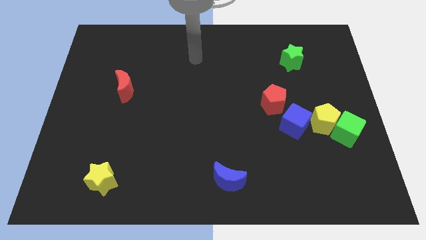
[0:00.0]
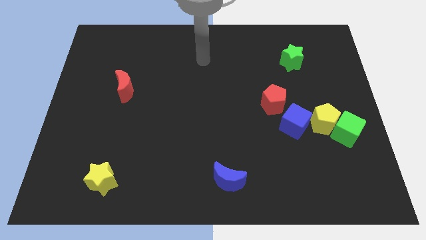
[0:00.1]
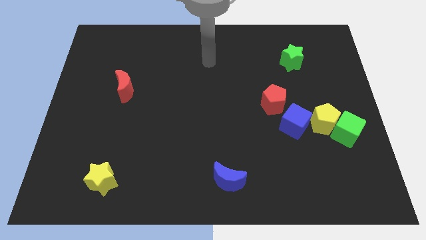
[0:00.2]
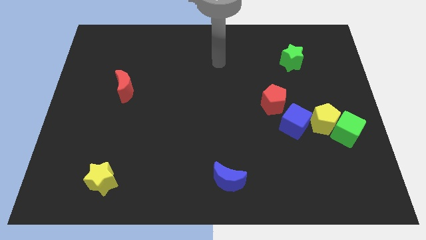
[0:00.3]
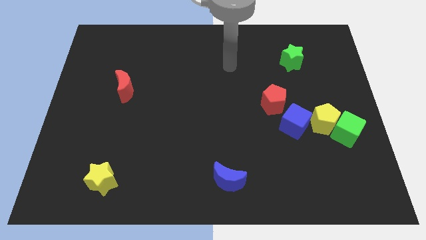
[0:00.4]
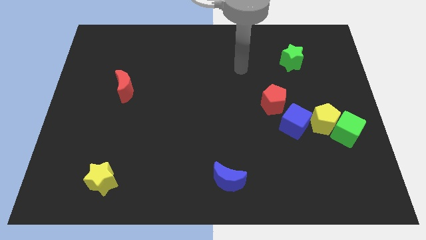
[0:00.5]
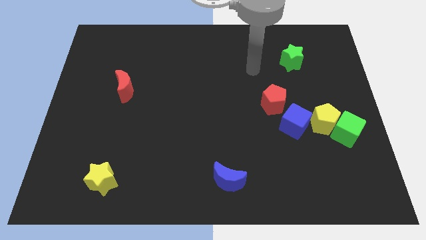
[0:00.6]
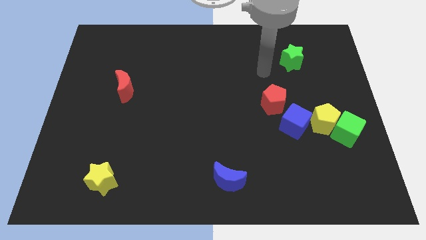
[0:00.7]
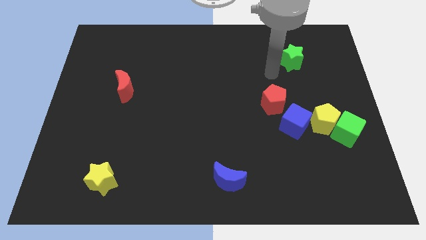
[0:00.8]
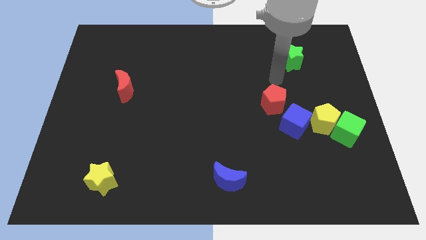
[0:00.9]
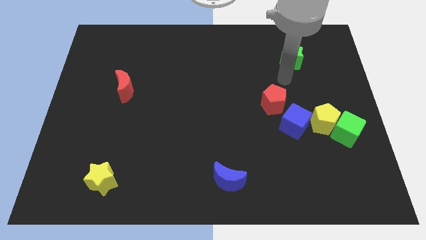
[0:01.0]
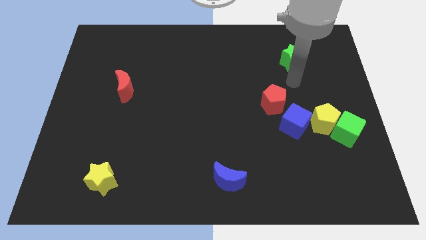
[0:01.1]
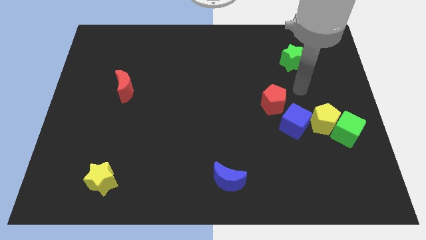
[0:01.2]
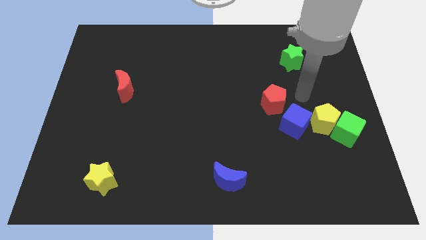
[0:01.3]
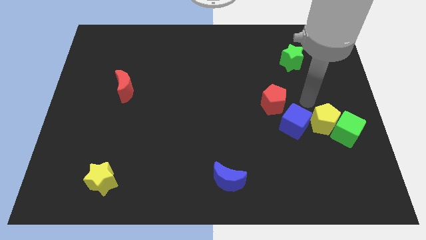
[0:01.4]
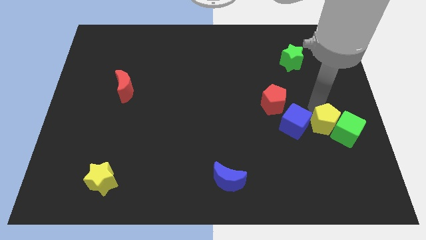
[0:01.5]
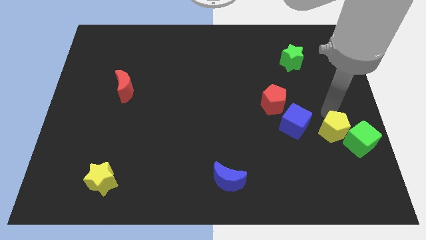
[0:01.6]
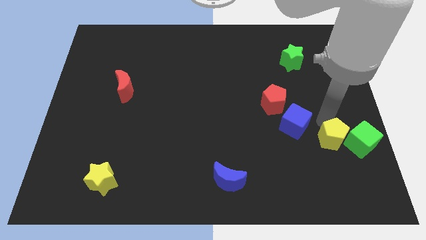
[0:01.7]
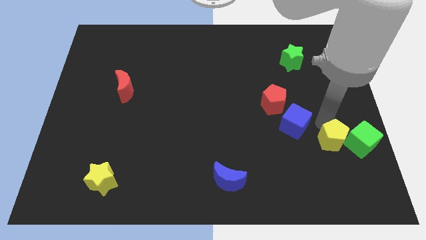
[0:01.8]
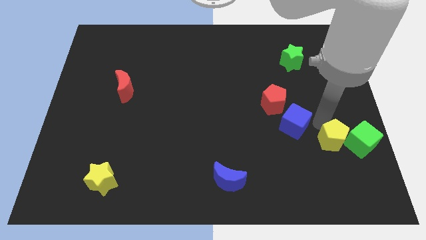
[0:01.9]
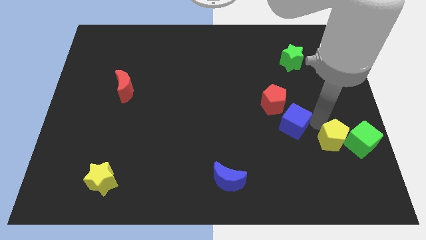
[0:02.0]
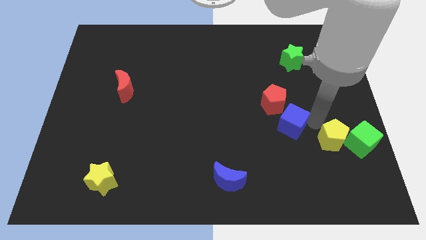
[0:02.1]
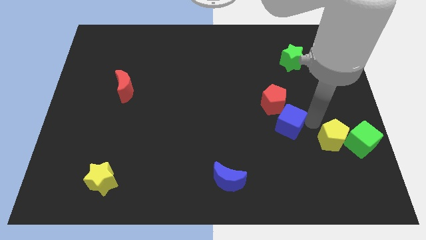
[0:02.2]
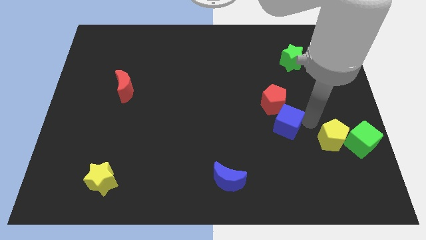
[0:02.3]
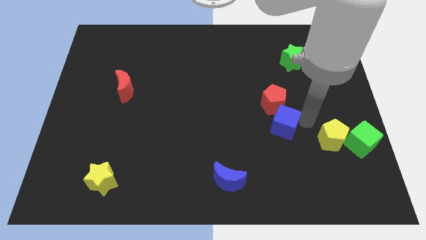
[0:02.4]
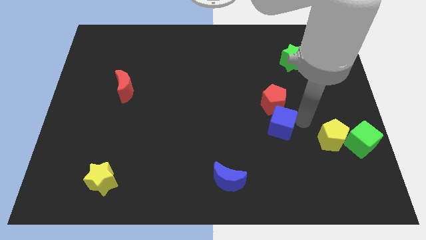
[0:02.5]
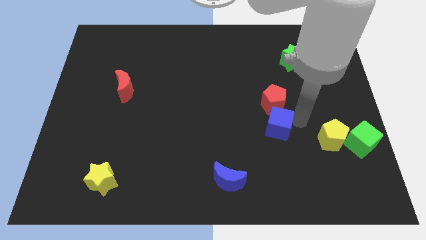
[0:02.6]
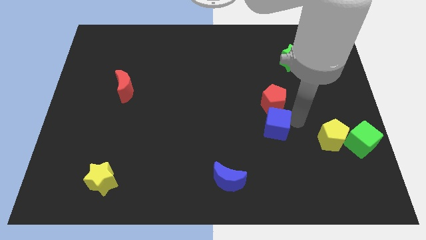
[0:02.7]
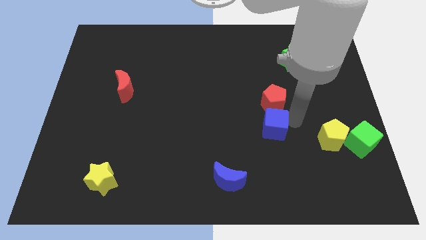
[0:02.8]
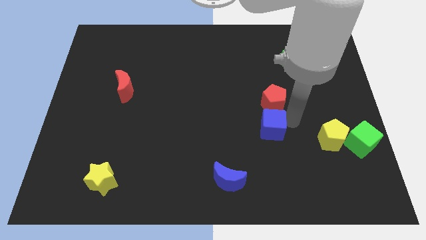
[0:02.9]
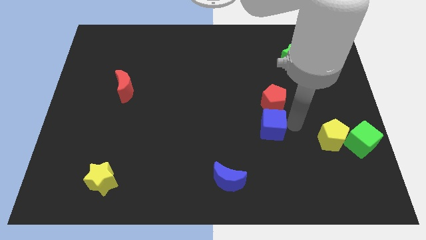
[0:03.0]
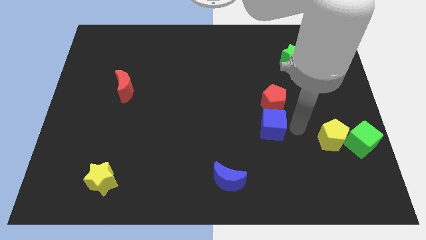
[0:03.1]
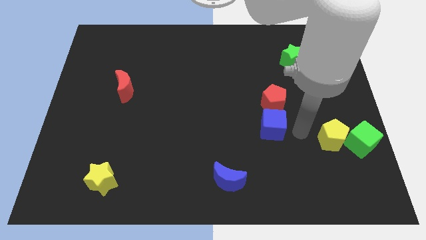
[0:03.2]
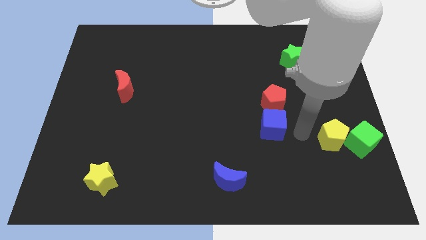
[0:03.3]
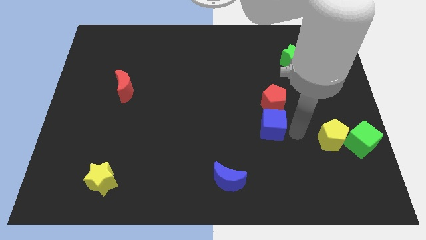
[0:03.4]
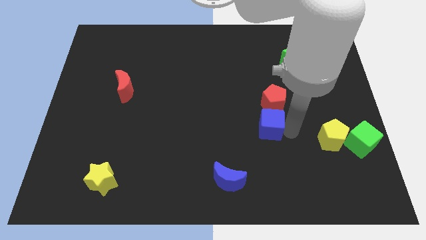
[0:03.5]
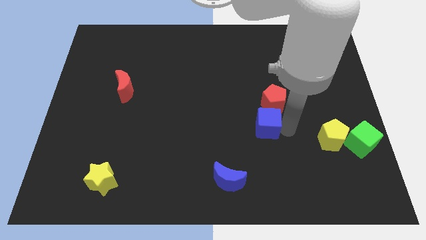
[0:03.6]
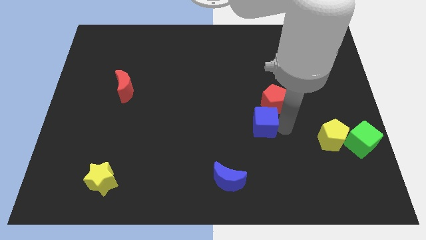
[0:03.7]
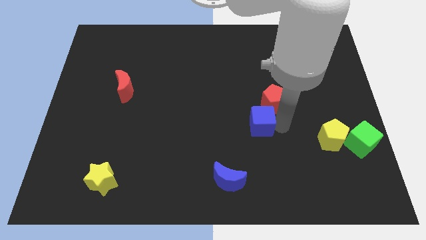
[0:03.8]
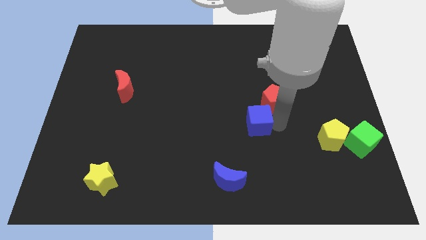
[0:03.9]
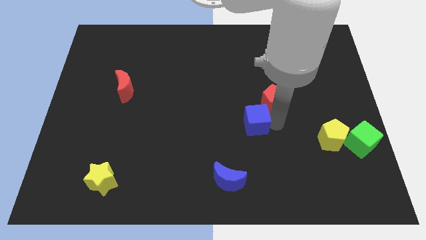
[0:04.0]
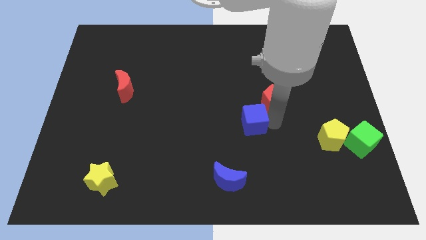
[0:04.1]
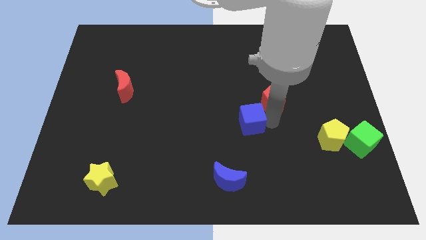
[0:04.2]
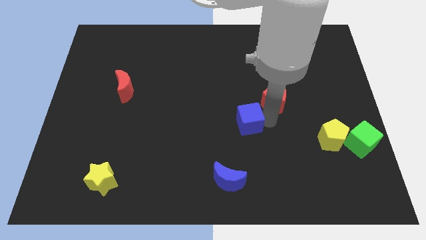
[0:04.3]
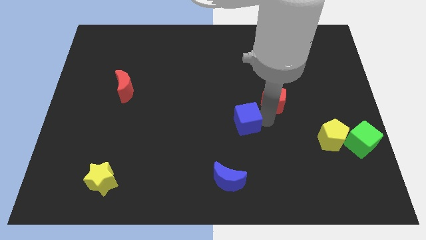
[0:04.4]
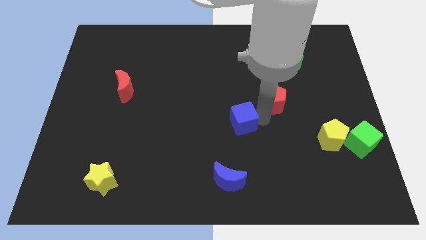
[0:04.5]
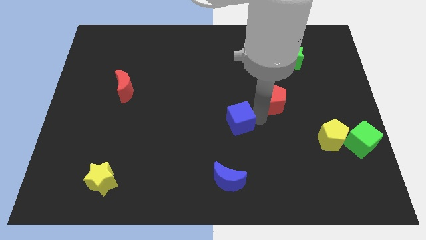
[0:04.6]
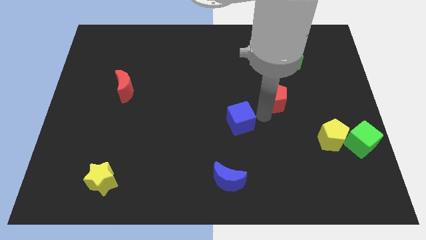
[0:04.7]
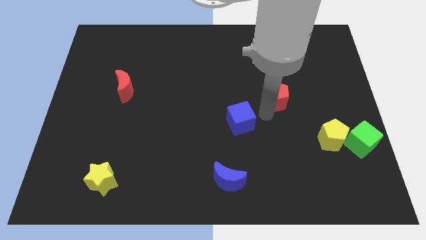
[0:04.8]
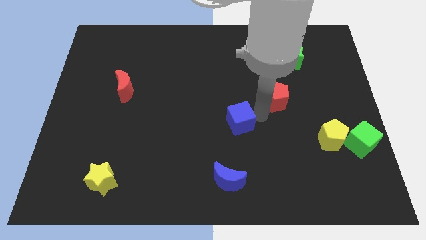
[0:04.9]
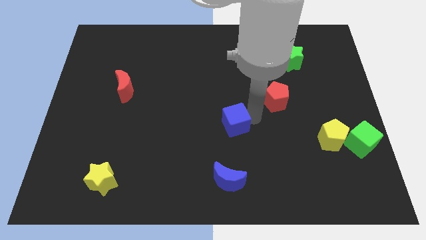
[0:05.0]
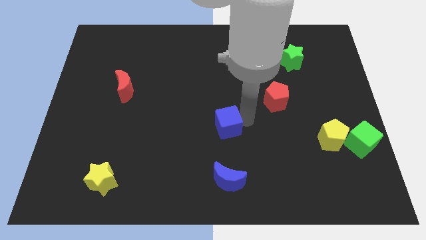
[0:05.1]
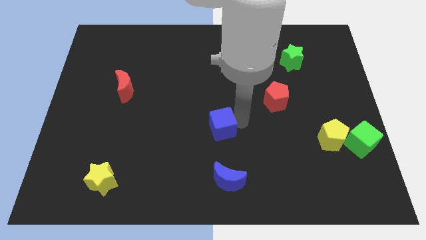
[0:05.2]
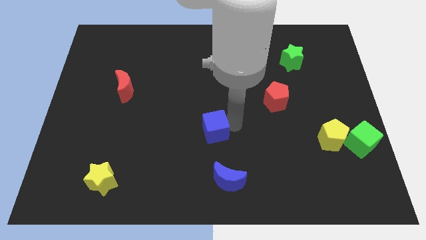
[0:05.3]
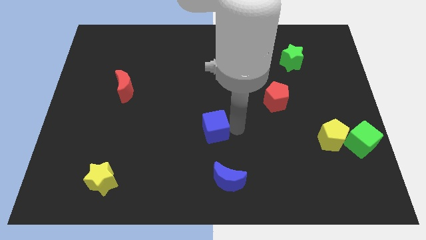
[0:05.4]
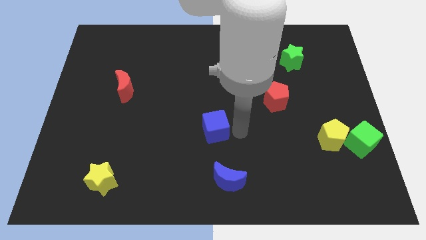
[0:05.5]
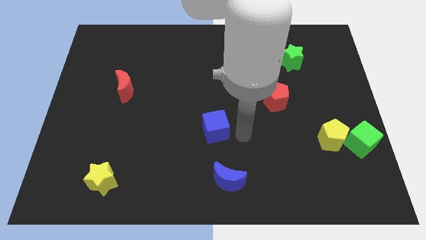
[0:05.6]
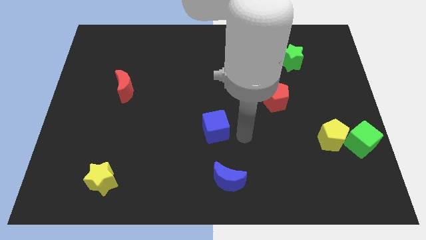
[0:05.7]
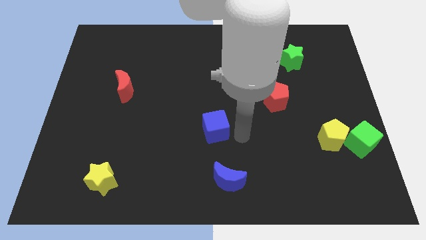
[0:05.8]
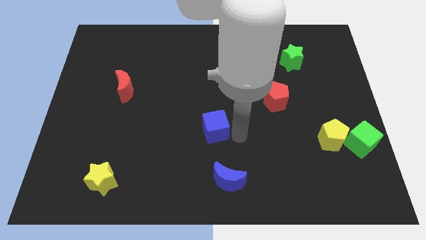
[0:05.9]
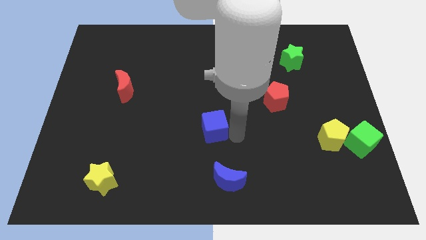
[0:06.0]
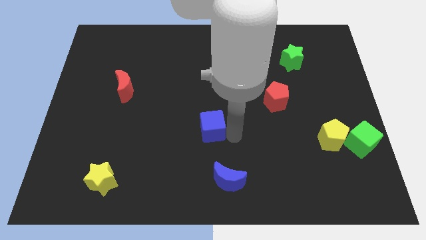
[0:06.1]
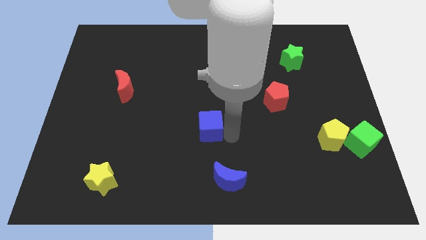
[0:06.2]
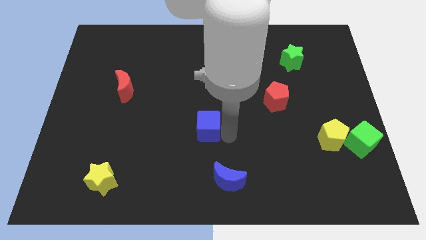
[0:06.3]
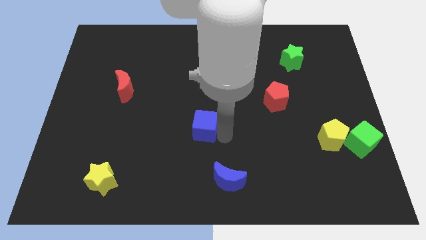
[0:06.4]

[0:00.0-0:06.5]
move the blue cube left

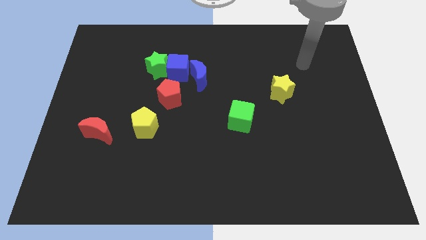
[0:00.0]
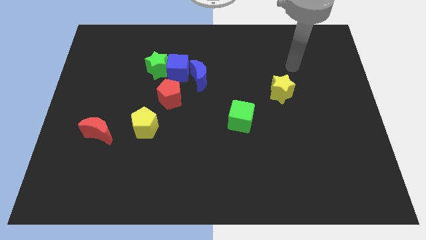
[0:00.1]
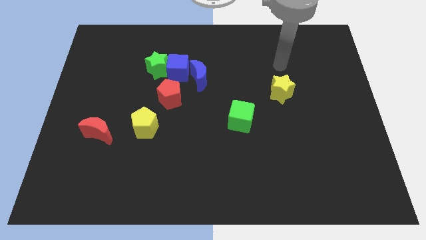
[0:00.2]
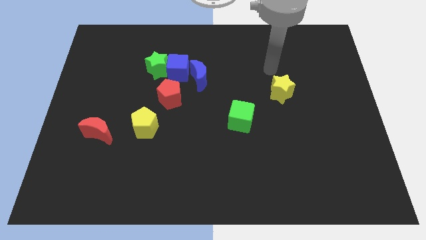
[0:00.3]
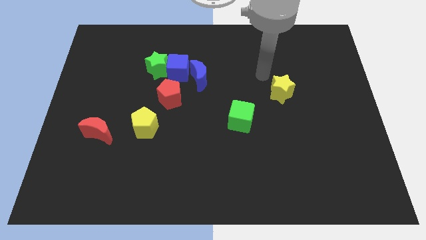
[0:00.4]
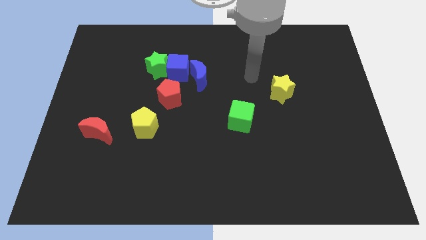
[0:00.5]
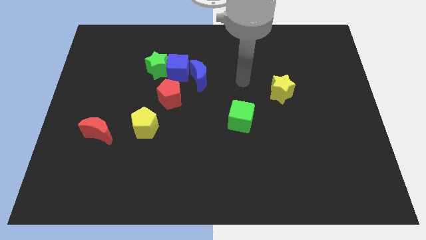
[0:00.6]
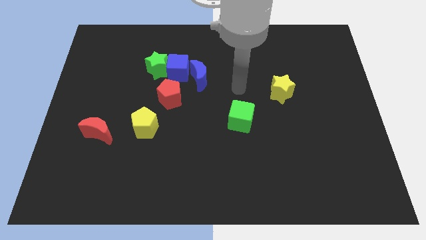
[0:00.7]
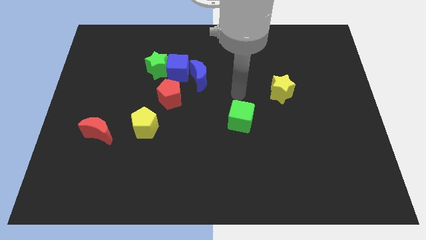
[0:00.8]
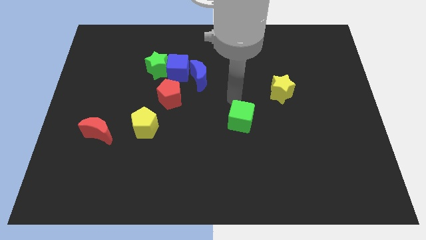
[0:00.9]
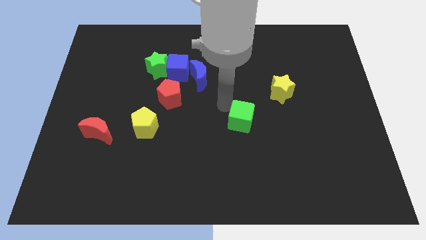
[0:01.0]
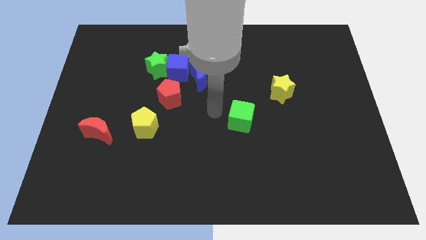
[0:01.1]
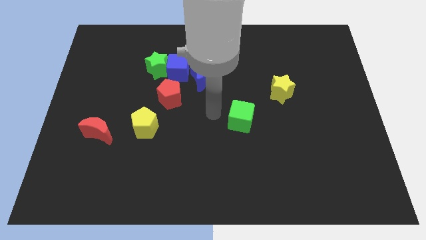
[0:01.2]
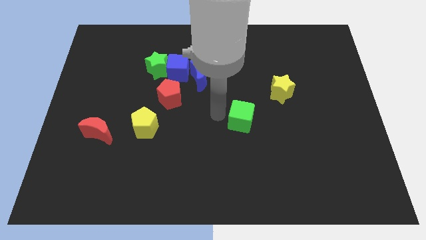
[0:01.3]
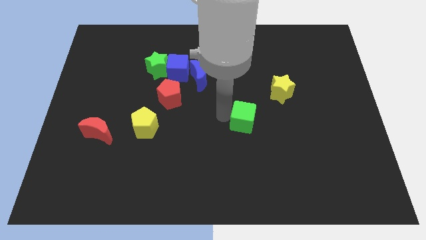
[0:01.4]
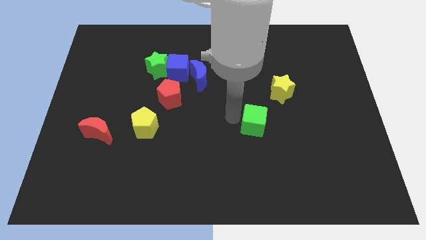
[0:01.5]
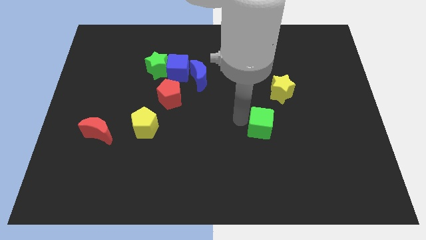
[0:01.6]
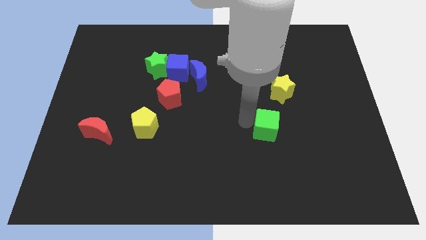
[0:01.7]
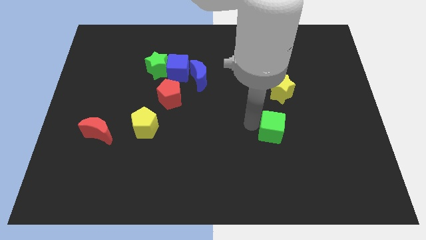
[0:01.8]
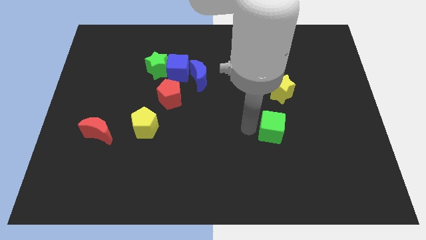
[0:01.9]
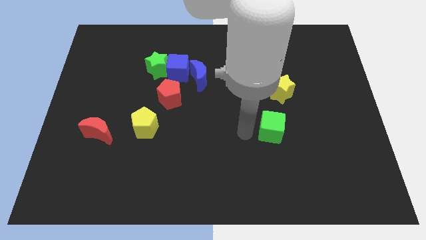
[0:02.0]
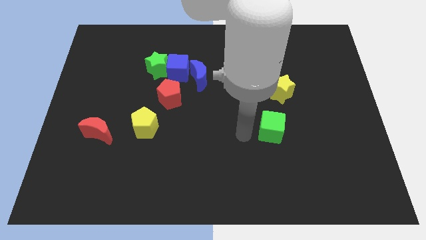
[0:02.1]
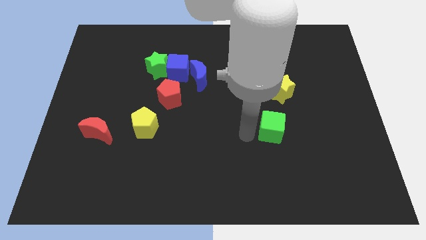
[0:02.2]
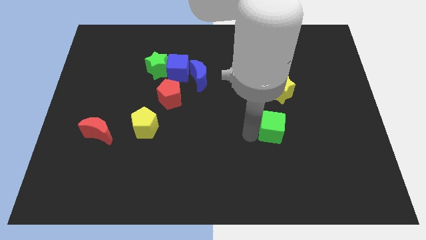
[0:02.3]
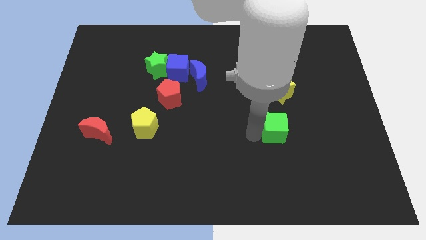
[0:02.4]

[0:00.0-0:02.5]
slightly slide the green cube right
